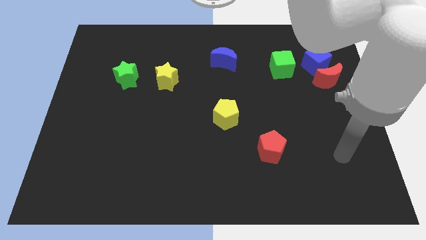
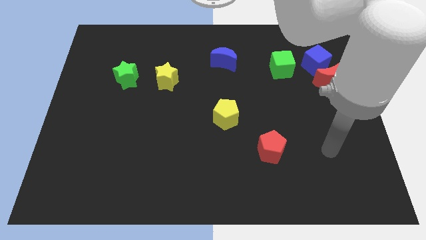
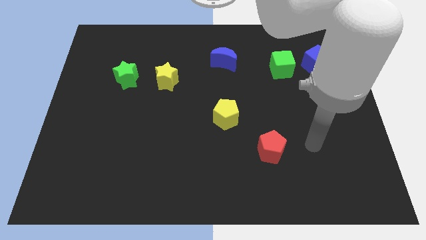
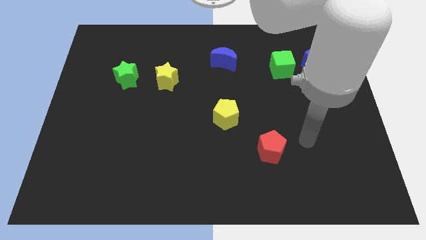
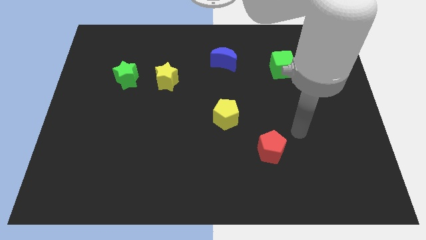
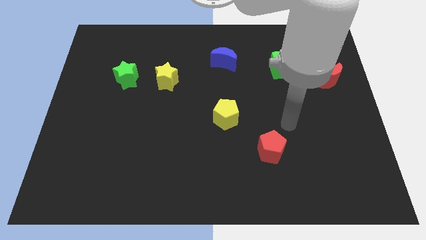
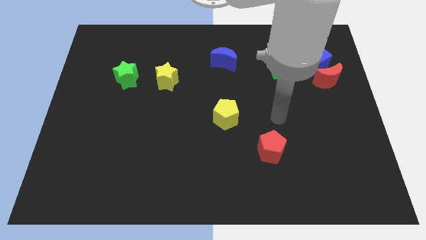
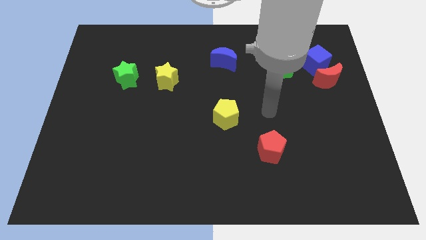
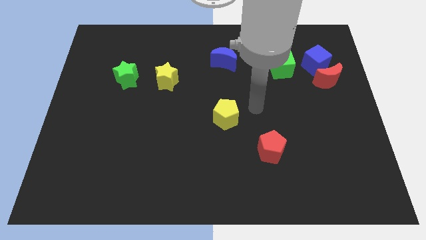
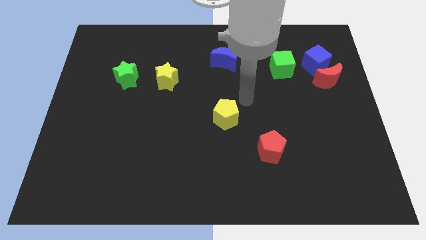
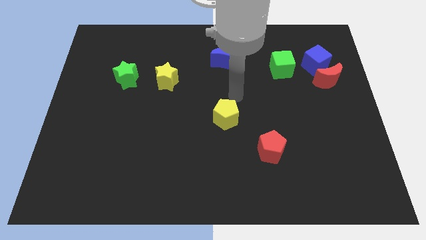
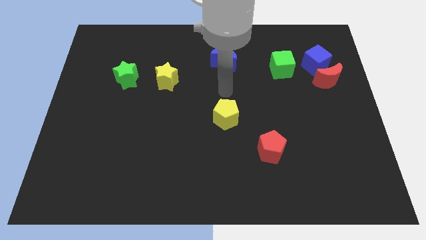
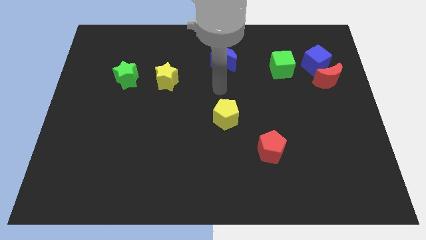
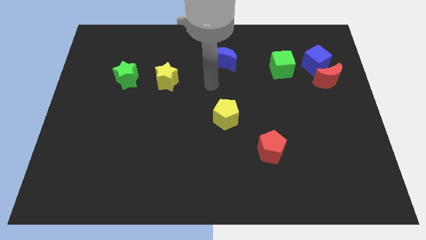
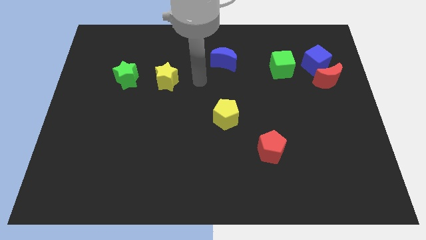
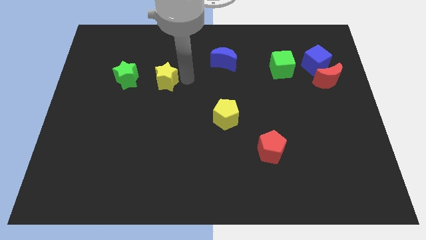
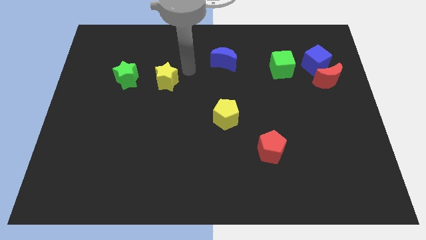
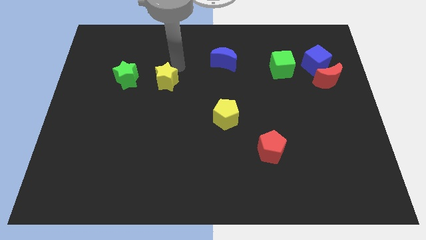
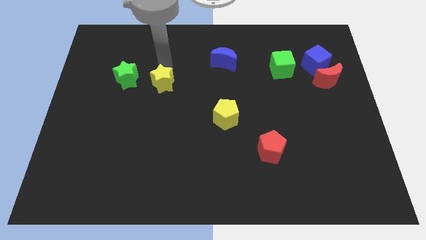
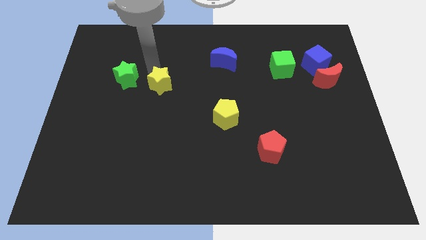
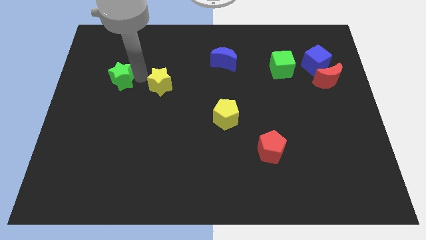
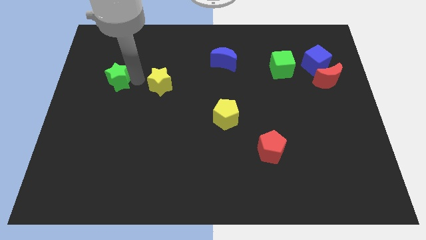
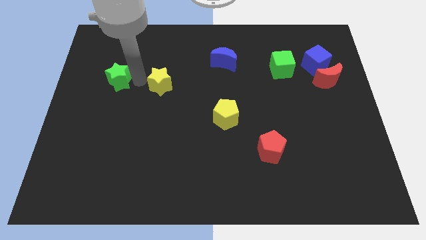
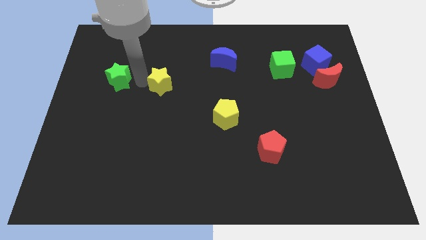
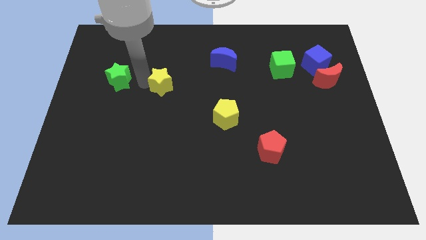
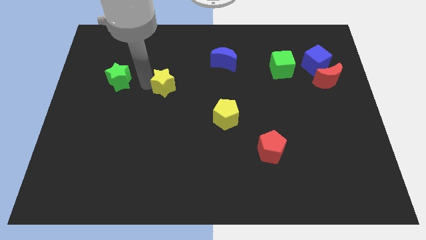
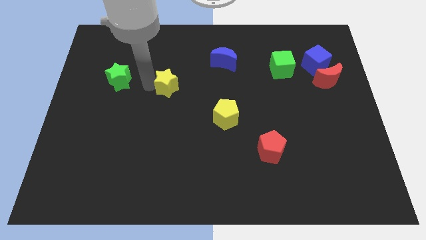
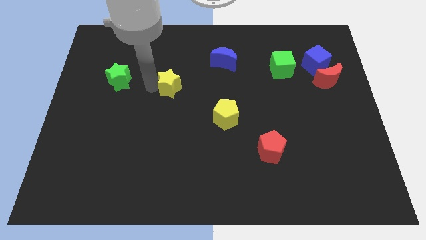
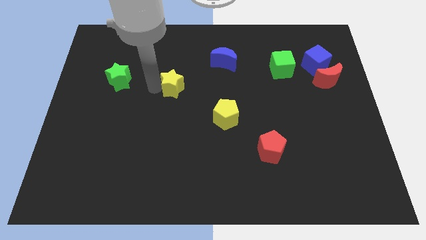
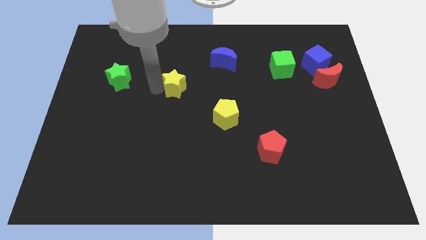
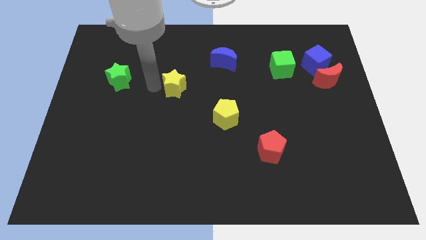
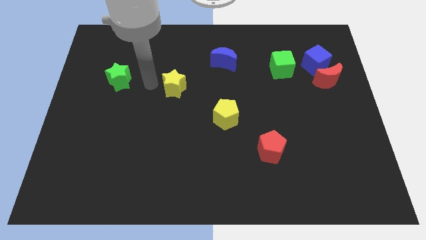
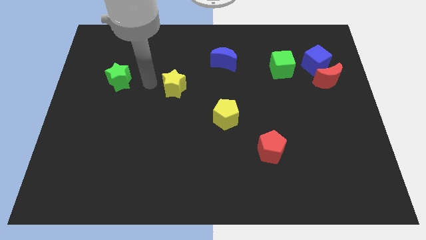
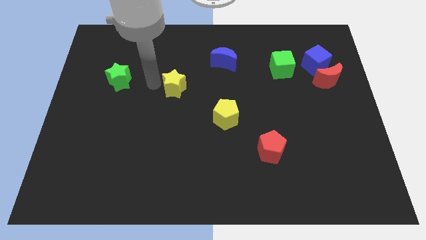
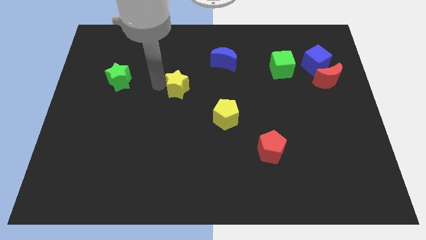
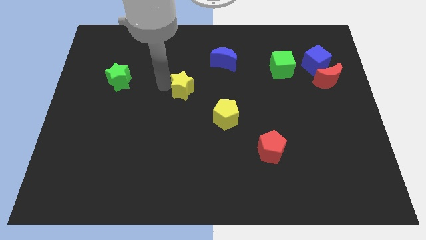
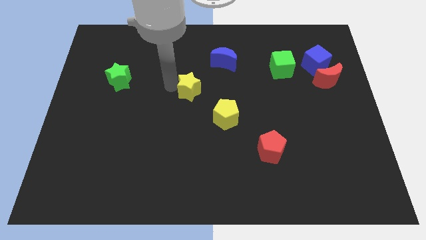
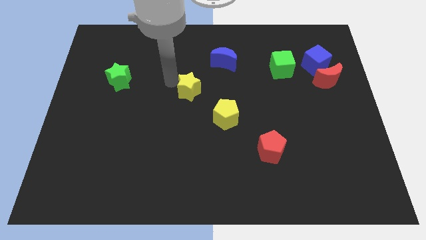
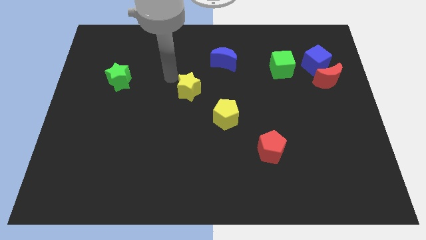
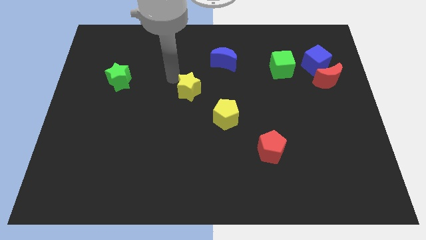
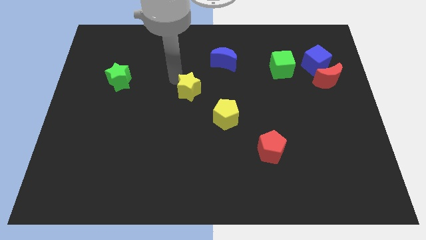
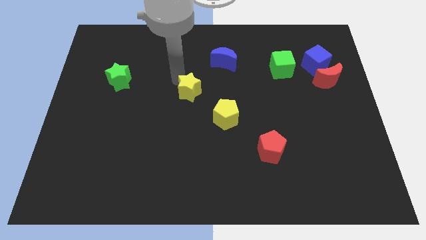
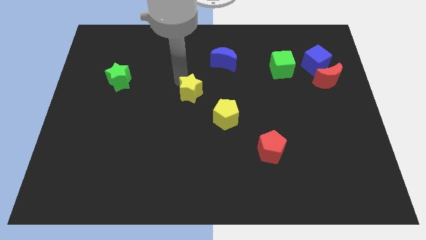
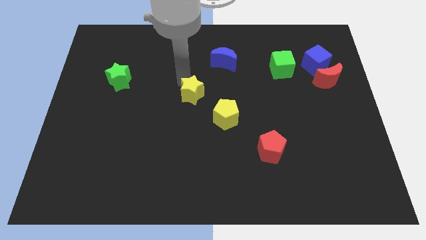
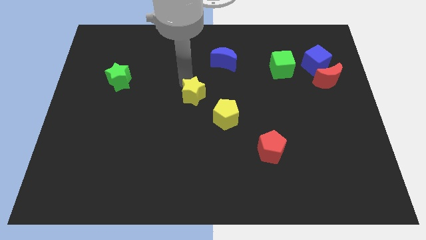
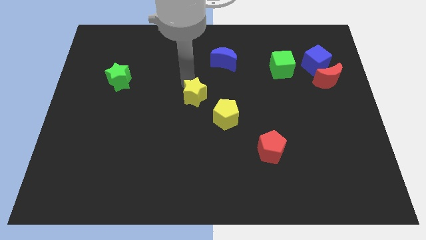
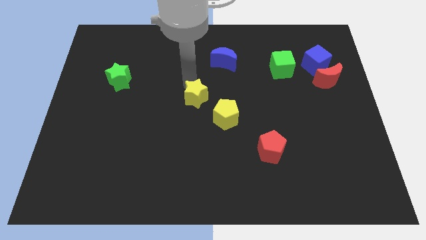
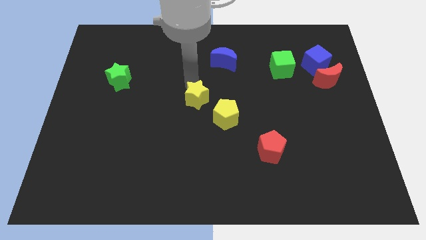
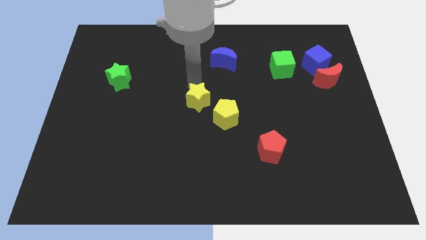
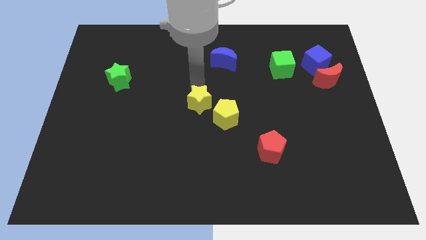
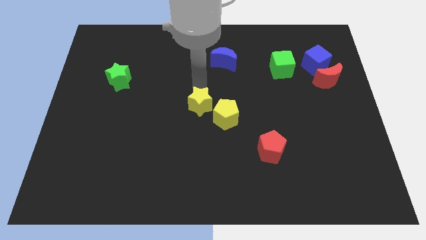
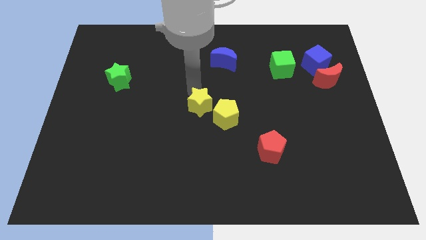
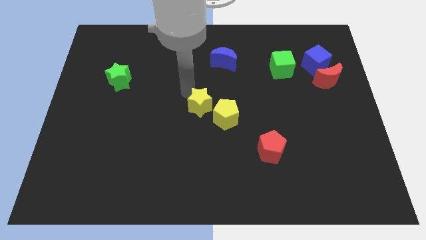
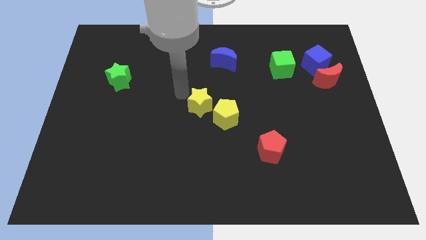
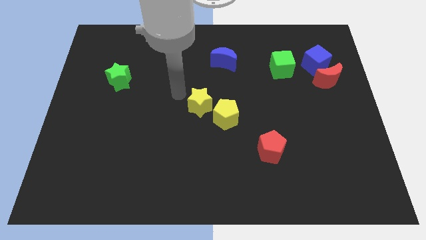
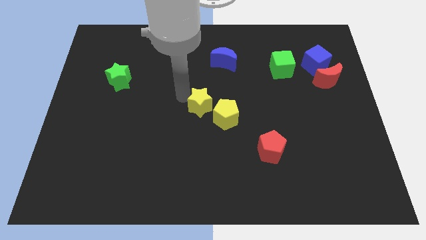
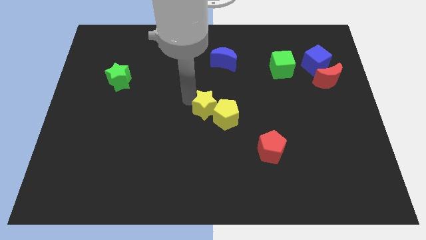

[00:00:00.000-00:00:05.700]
push the yellow star next to the yellow pentagon

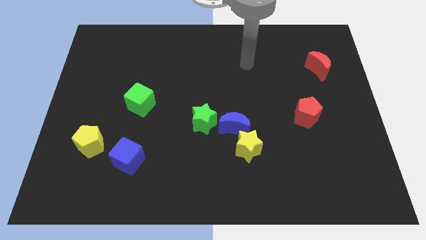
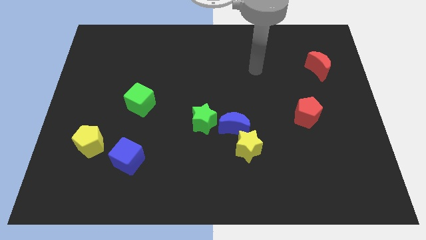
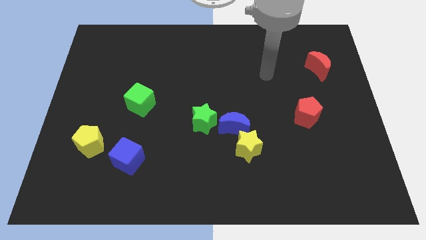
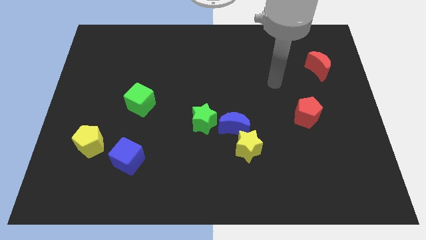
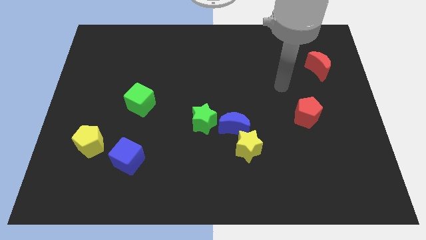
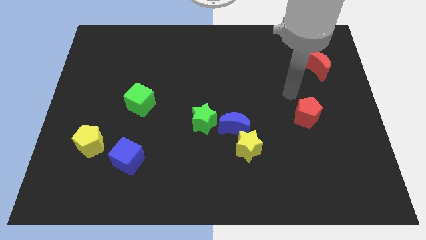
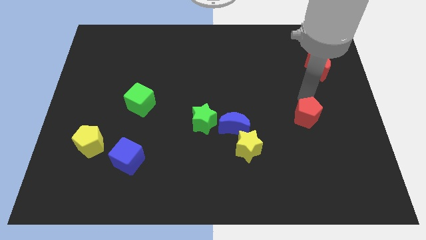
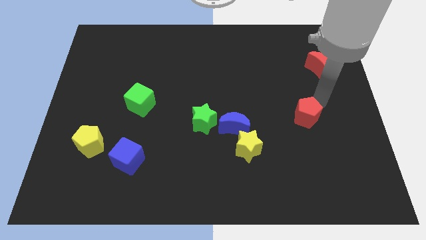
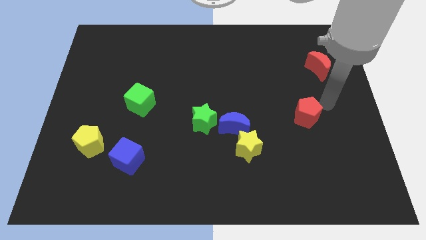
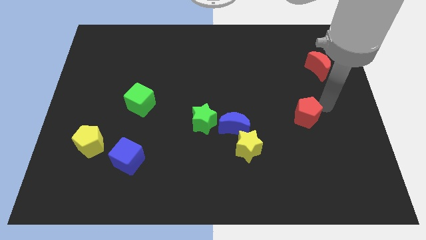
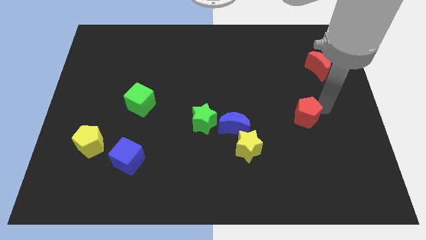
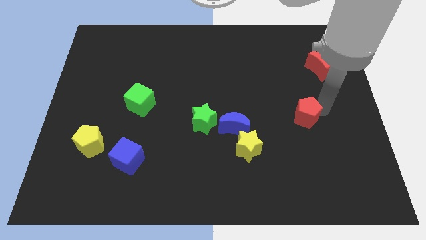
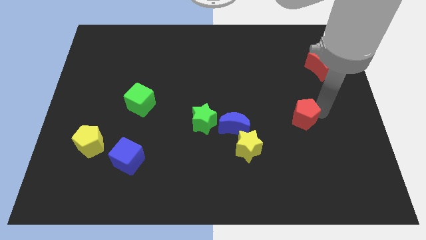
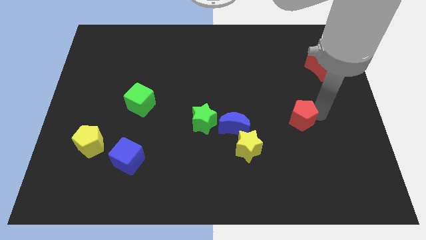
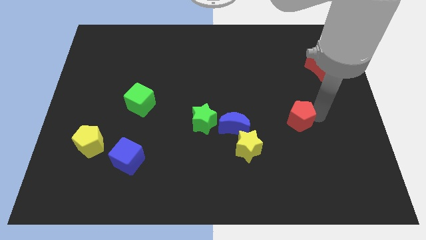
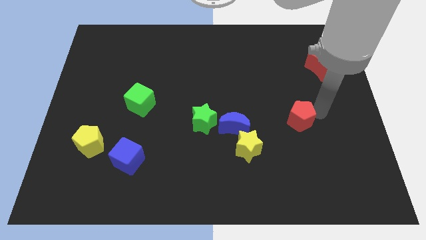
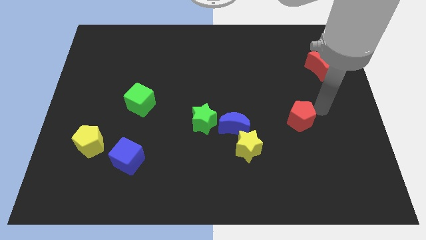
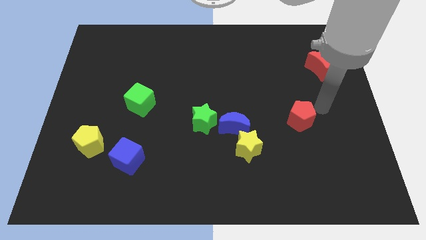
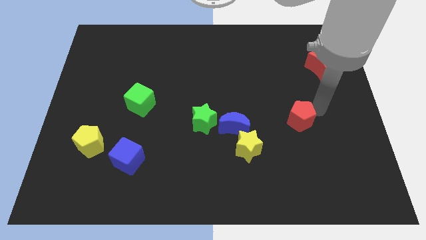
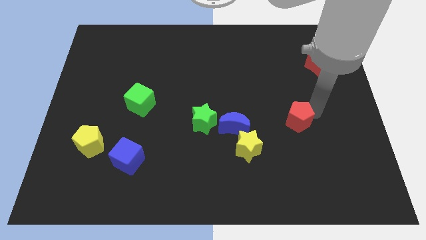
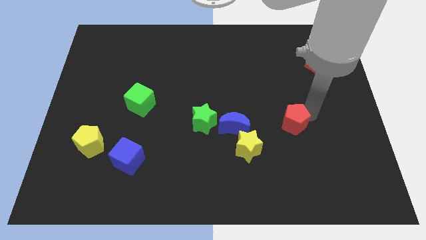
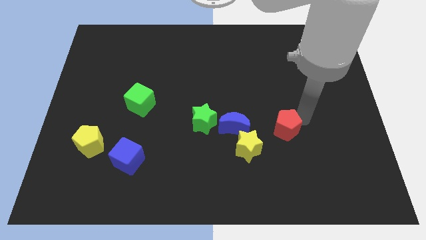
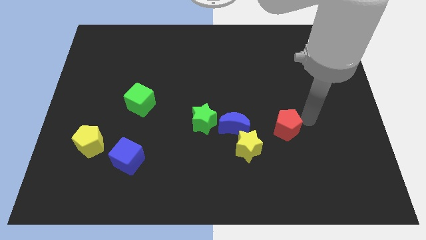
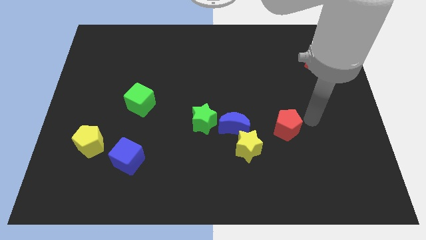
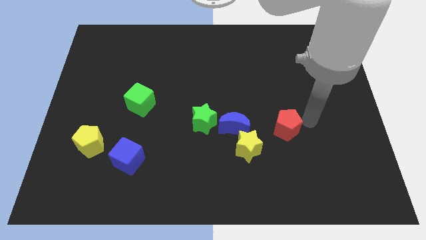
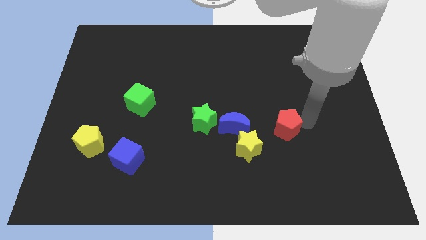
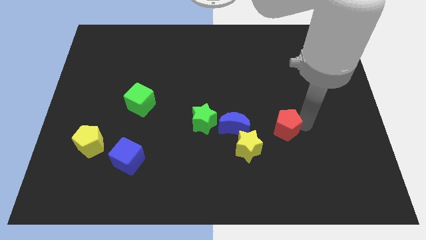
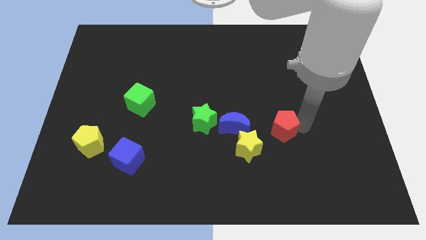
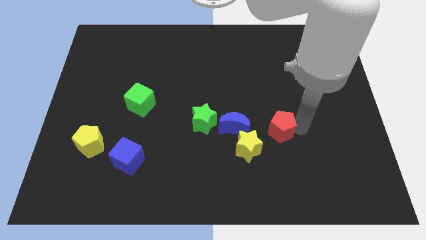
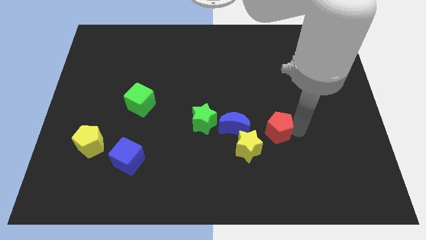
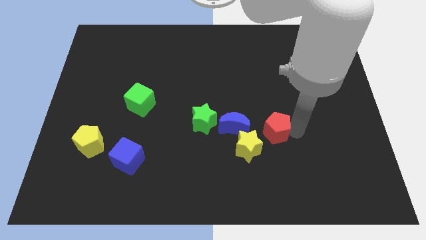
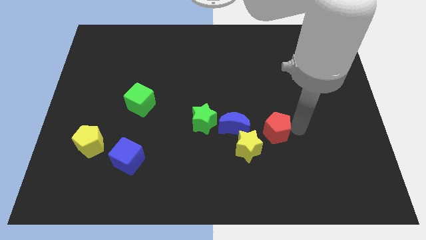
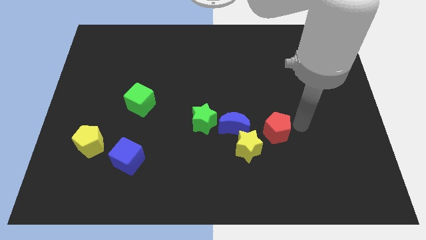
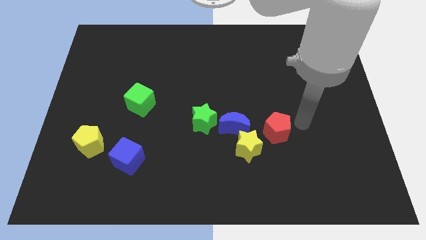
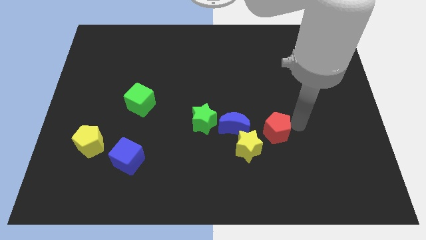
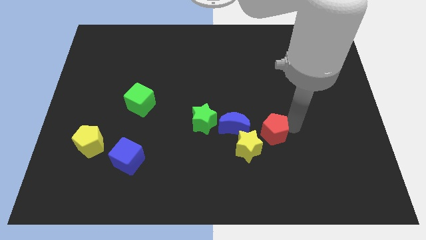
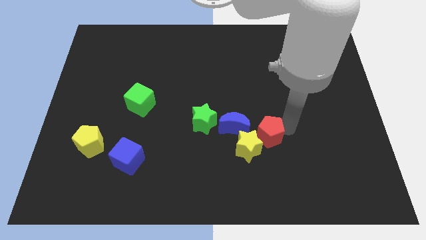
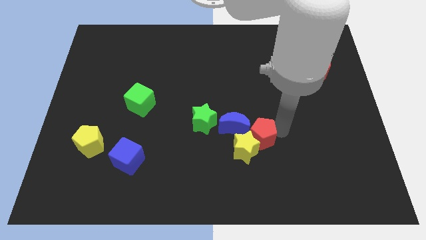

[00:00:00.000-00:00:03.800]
put the red pentagon close to the yellow star
